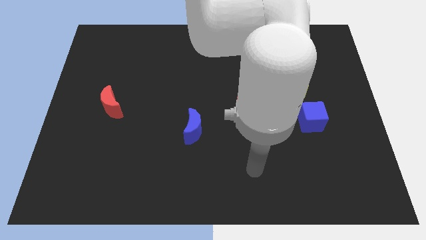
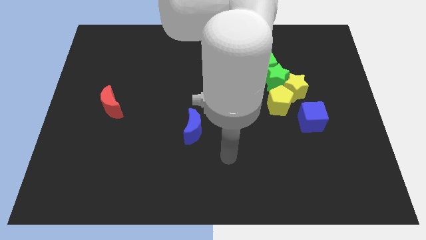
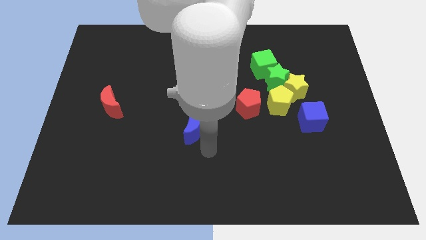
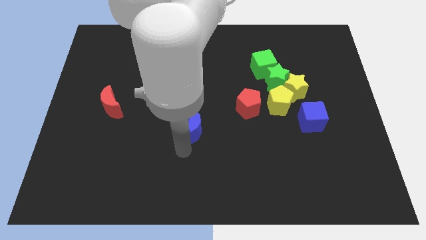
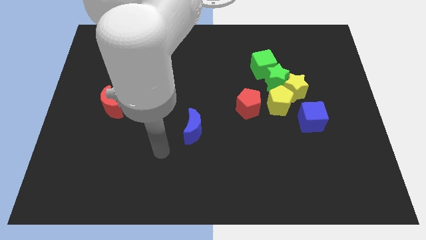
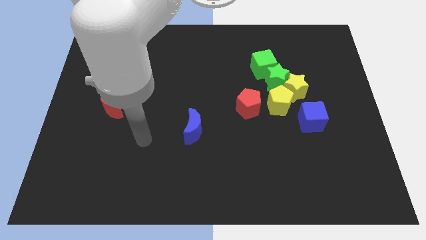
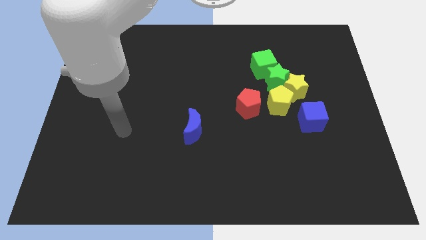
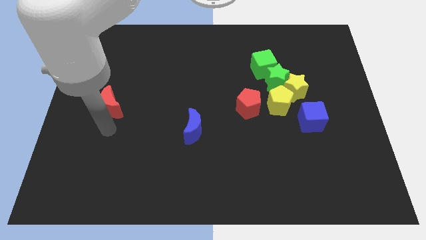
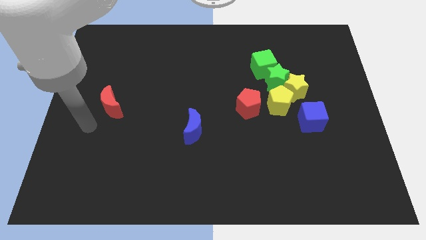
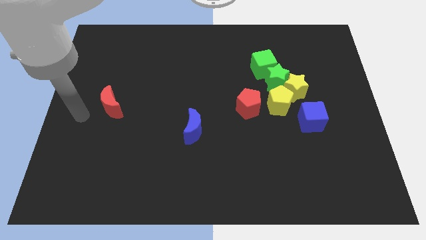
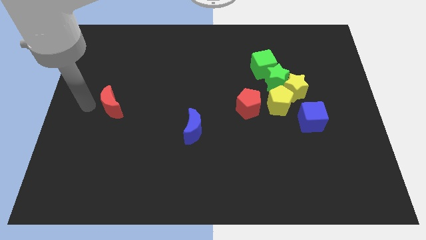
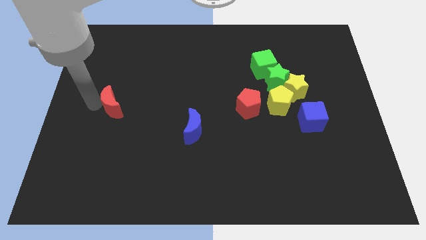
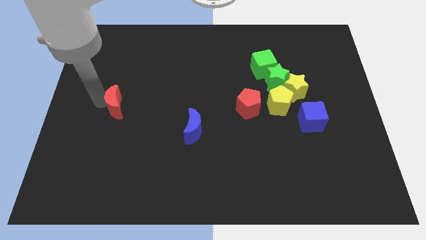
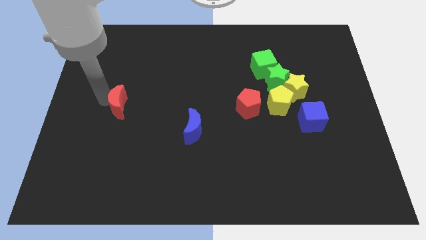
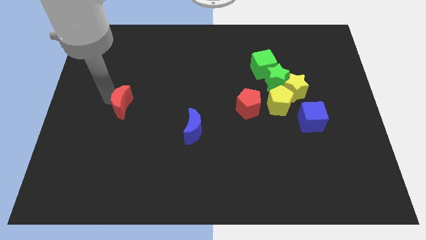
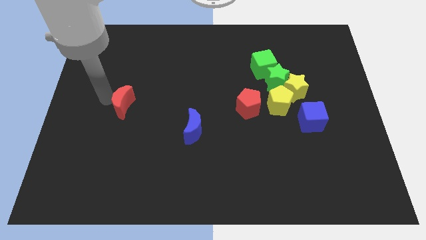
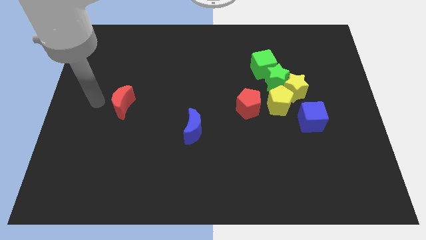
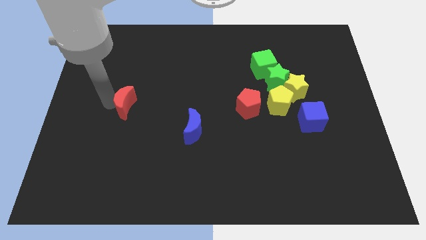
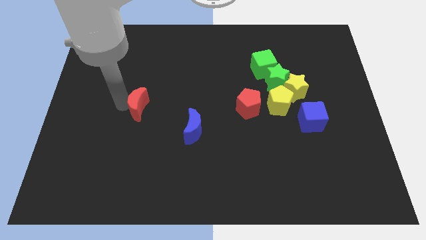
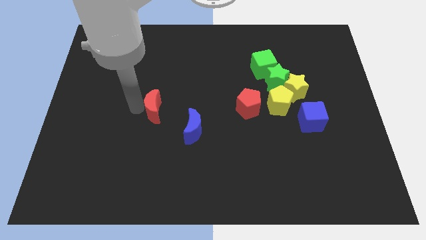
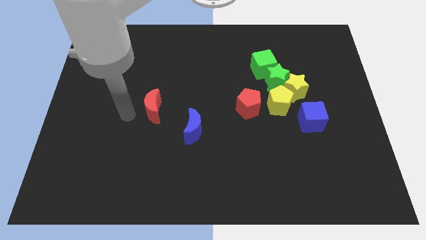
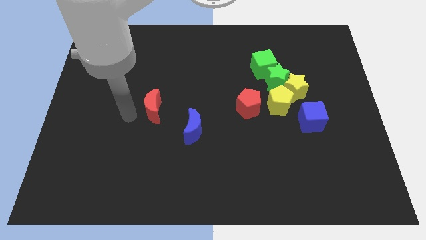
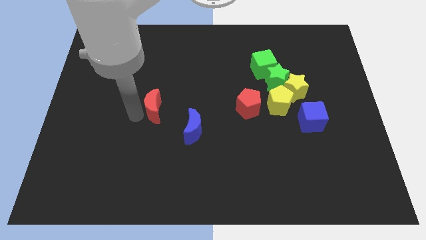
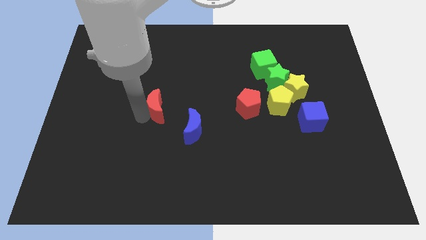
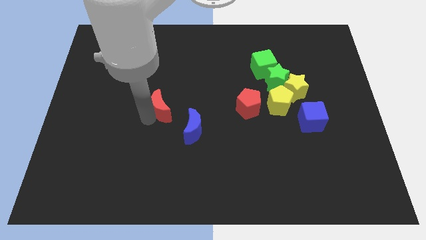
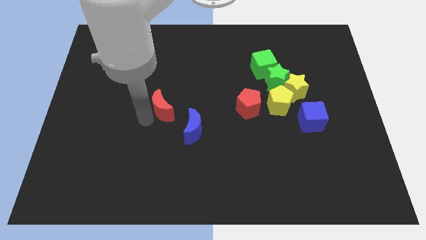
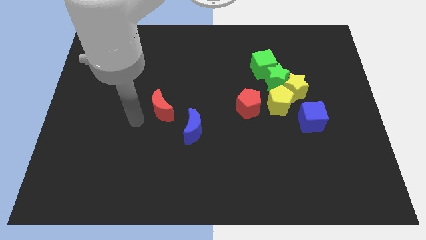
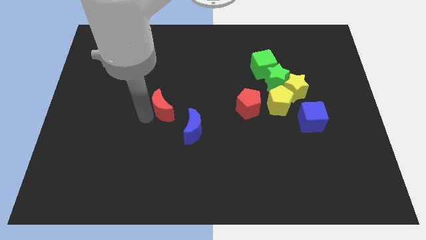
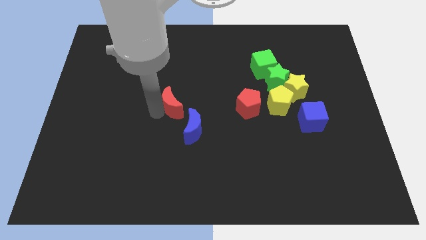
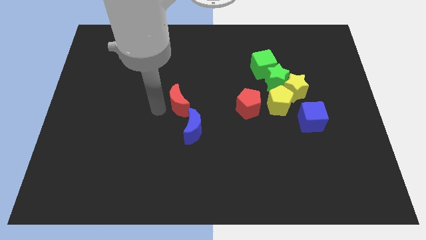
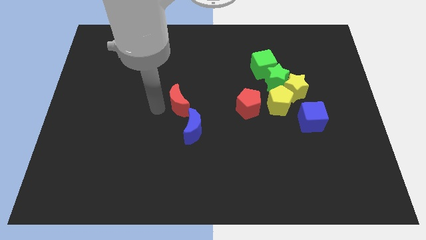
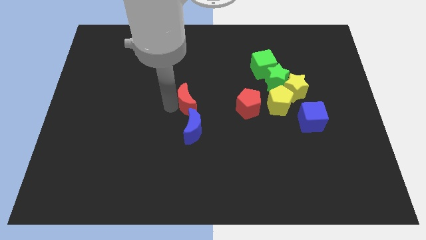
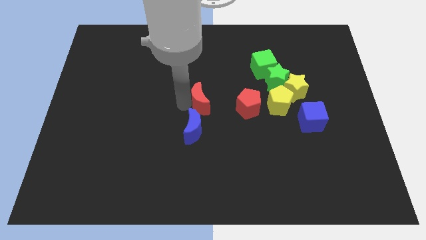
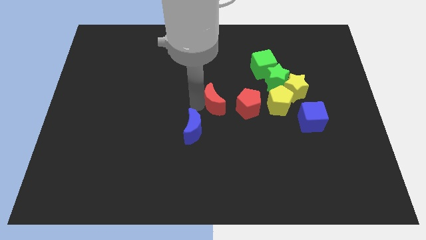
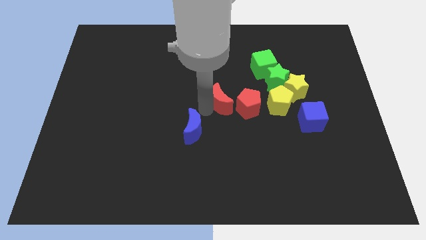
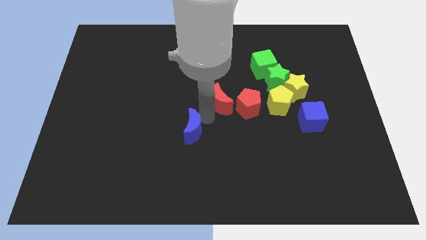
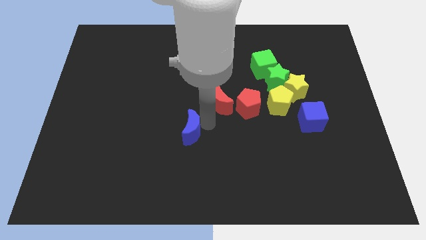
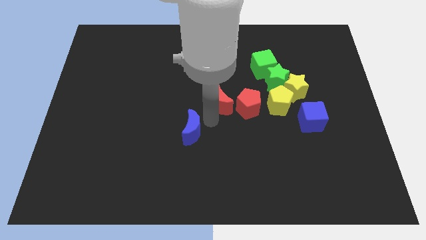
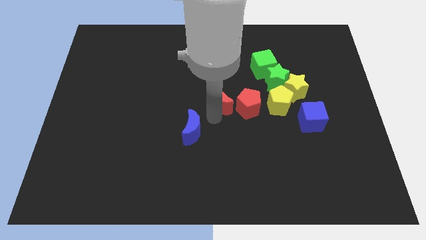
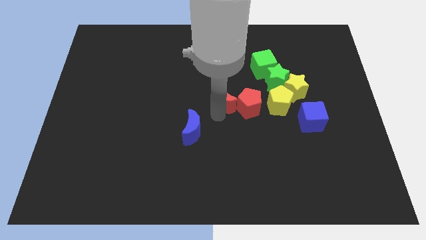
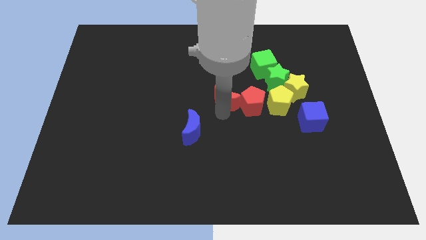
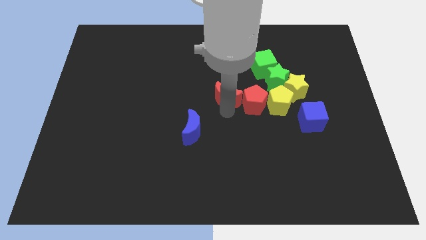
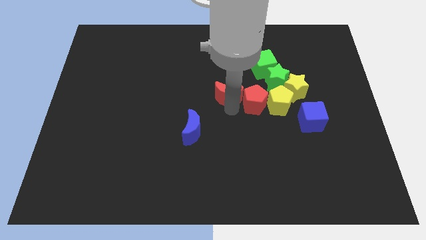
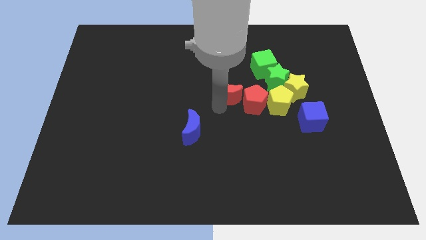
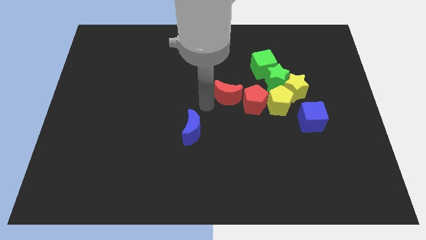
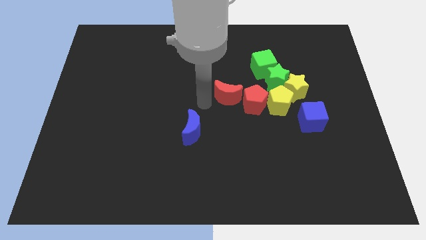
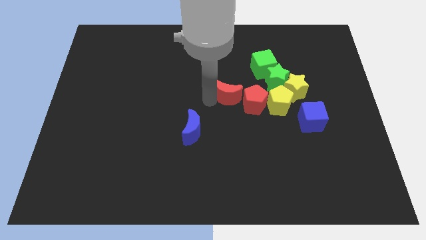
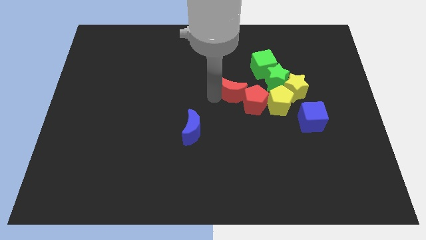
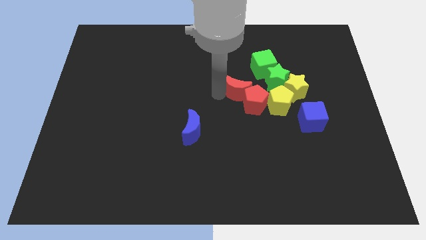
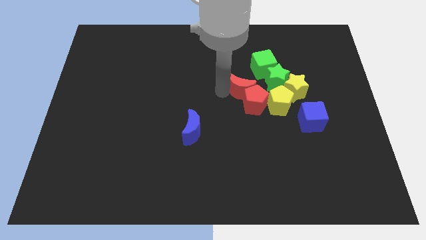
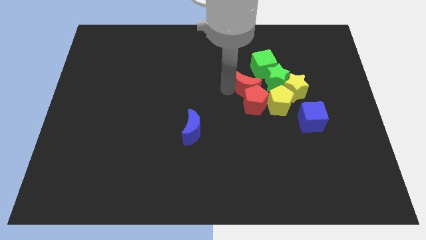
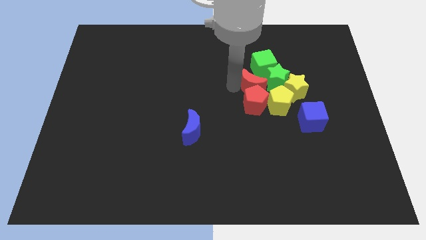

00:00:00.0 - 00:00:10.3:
push the red moon next to the green star

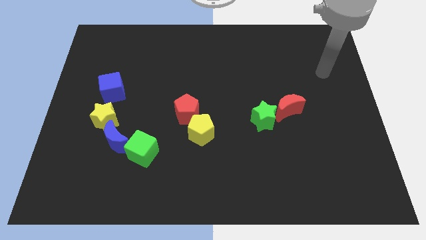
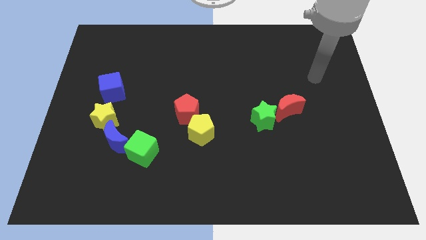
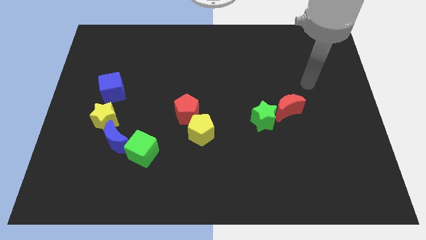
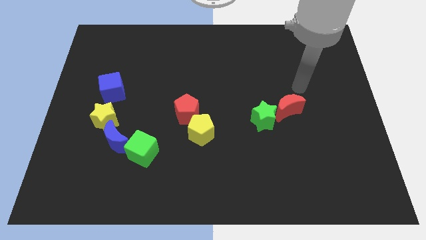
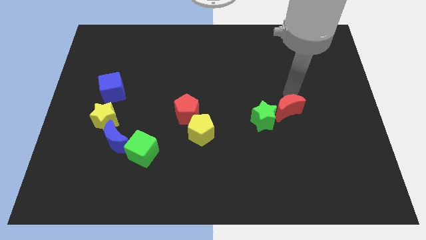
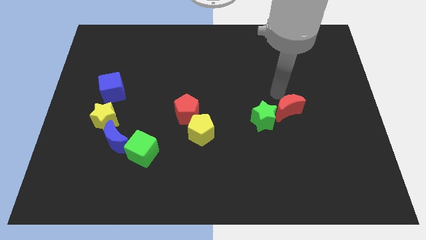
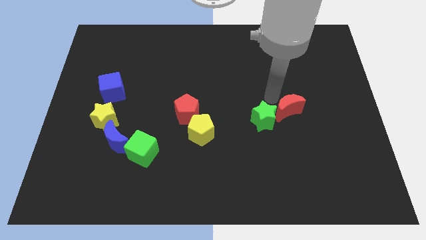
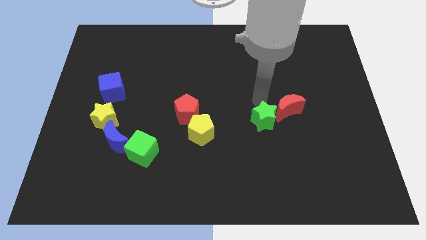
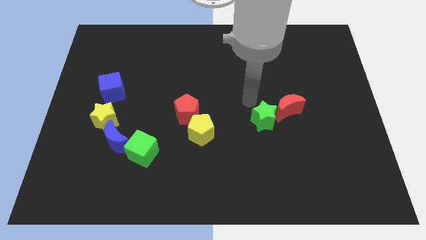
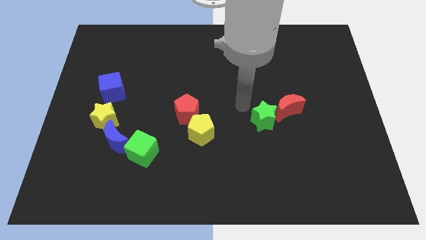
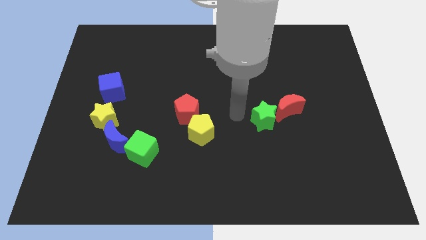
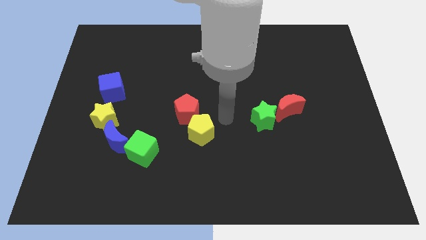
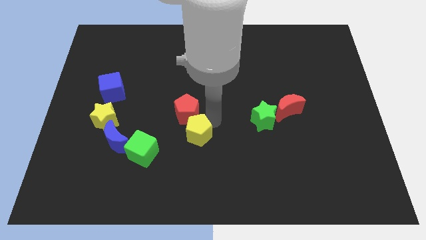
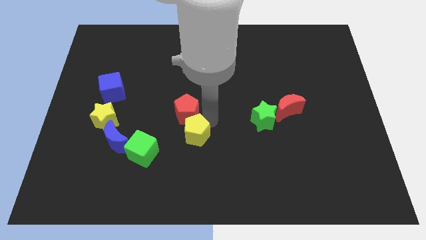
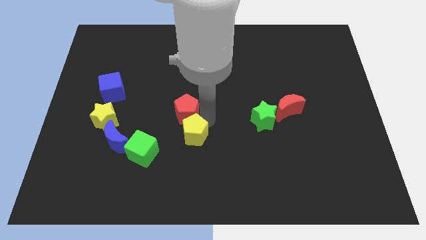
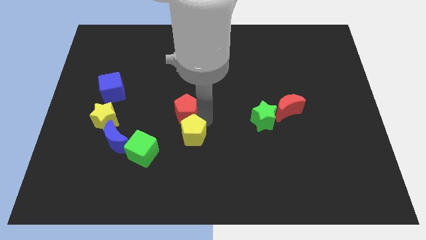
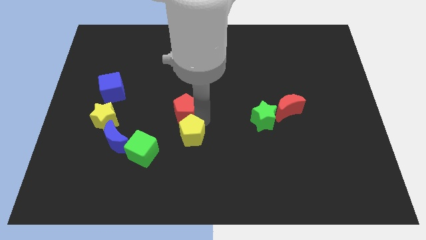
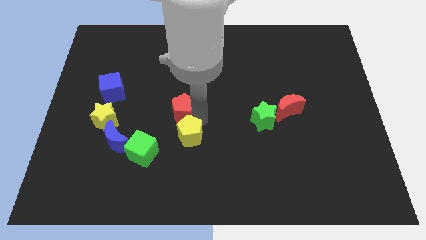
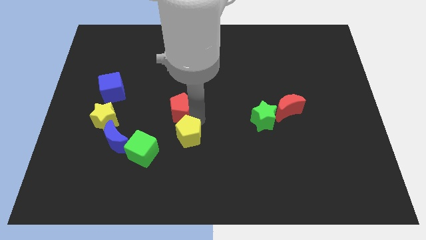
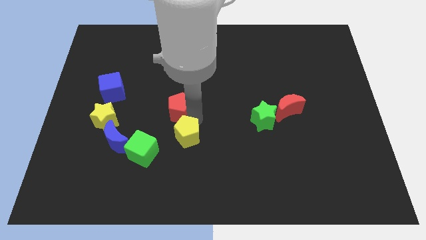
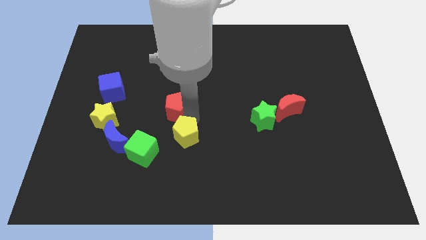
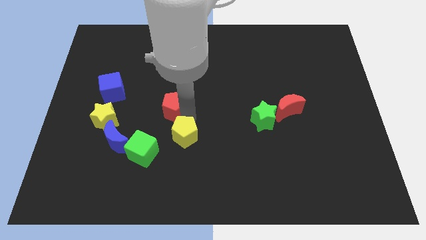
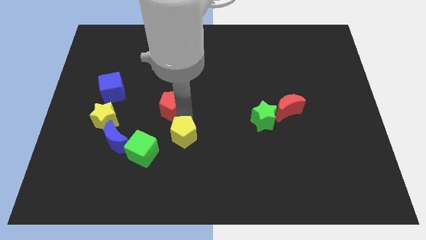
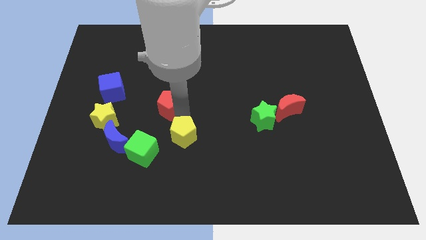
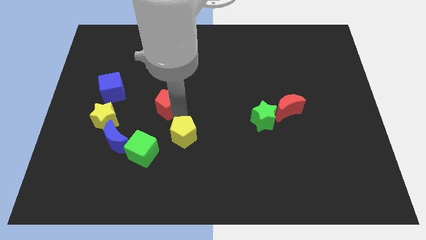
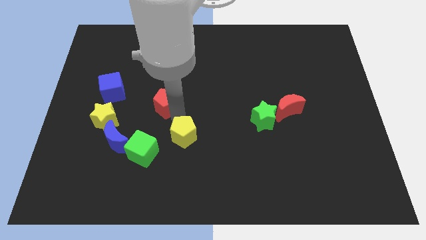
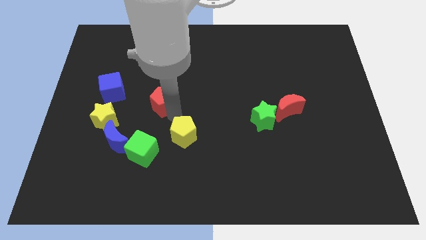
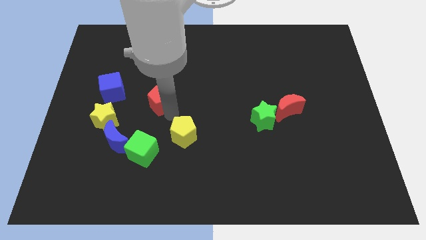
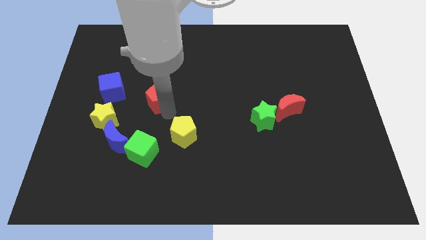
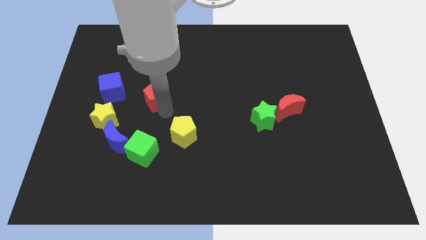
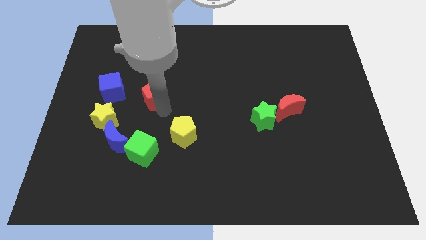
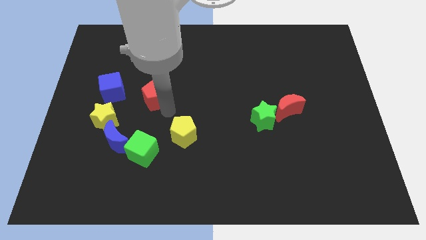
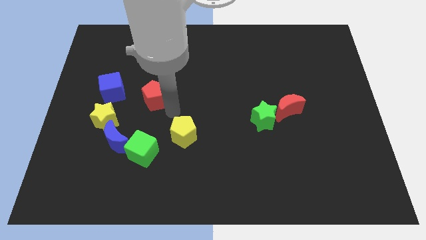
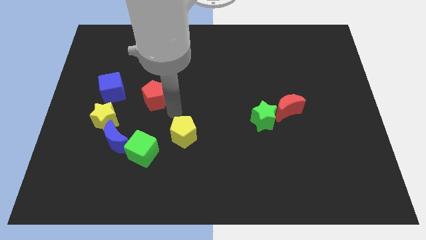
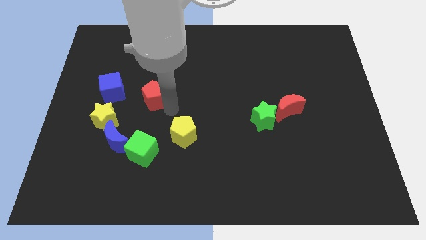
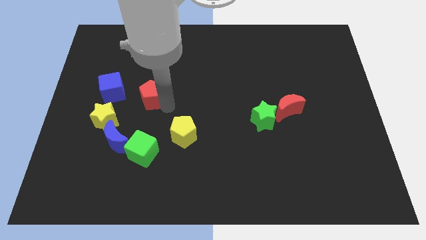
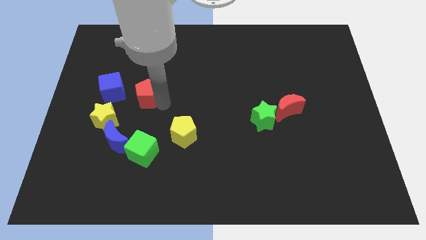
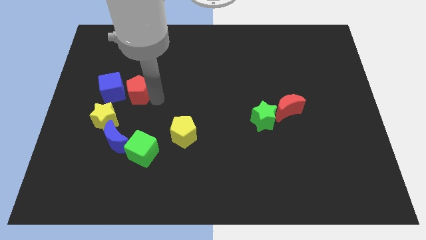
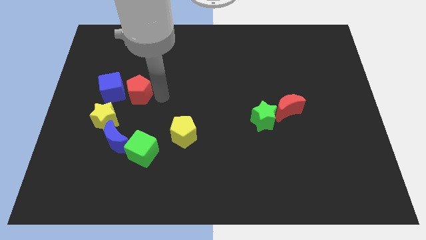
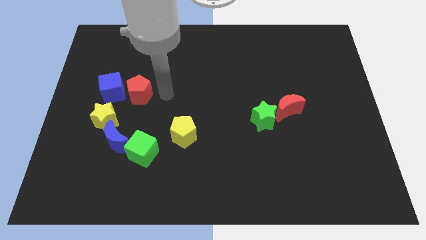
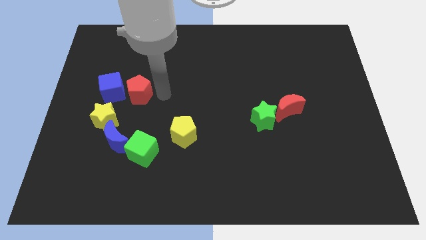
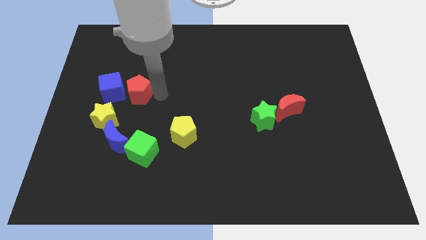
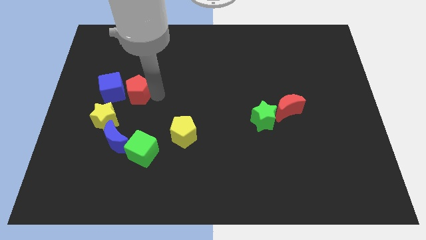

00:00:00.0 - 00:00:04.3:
move the red pentagon next to the blue cube
